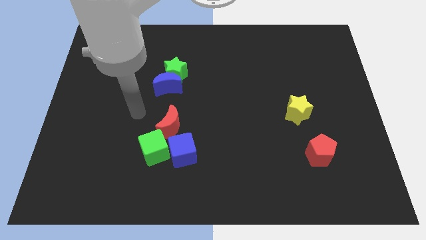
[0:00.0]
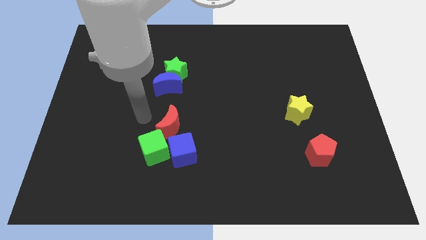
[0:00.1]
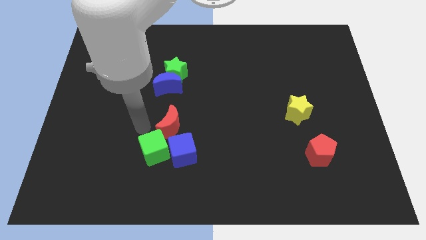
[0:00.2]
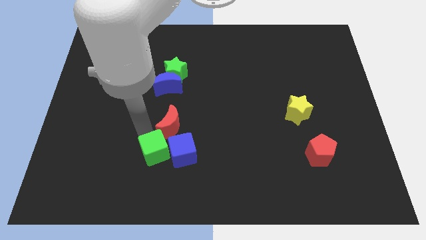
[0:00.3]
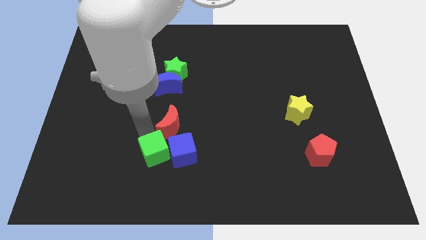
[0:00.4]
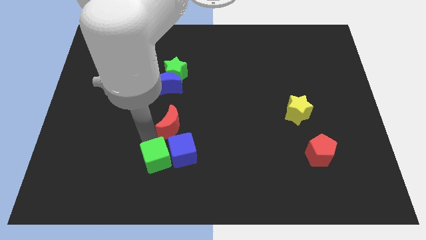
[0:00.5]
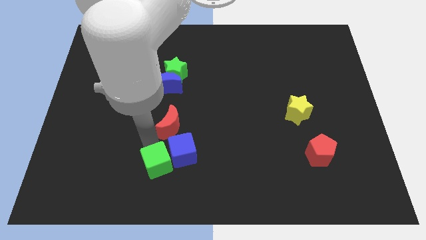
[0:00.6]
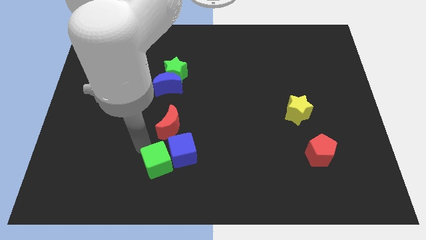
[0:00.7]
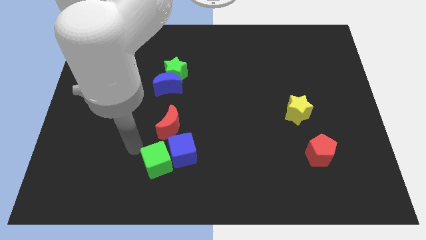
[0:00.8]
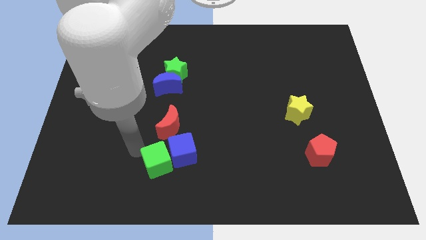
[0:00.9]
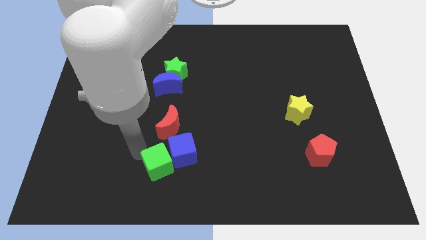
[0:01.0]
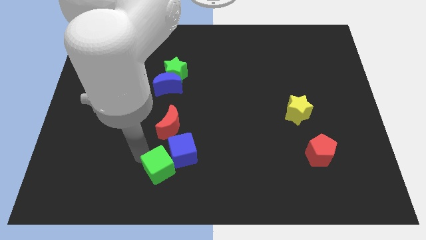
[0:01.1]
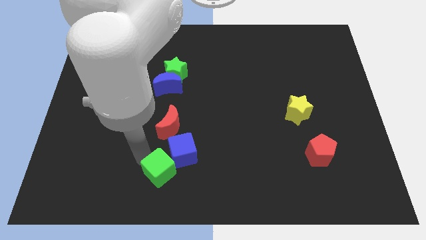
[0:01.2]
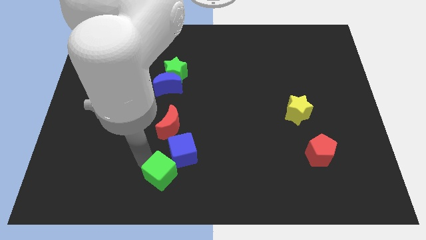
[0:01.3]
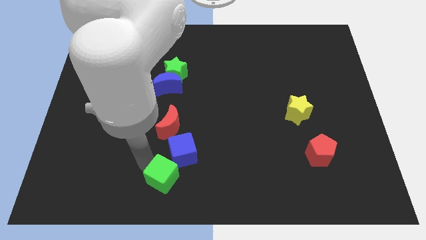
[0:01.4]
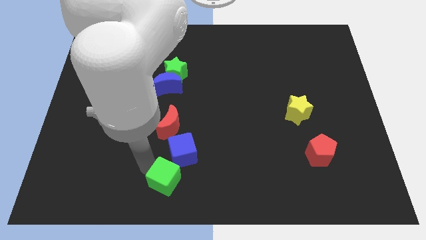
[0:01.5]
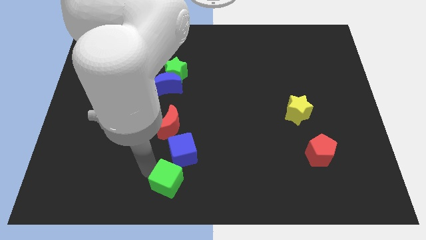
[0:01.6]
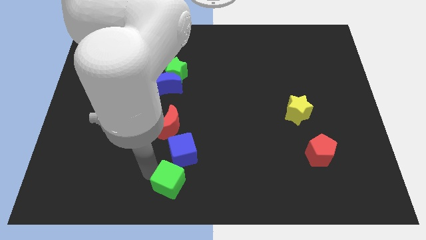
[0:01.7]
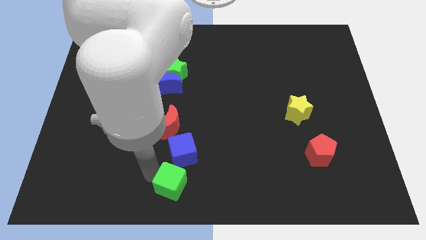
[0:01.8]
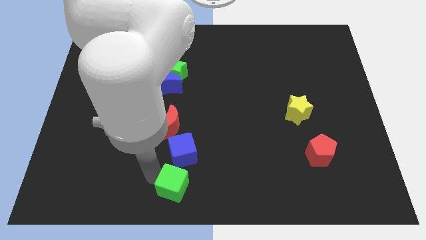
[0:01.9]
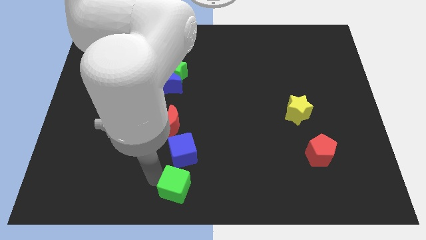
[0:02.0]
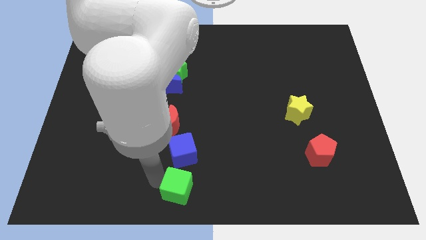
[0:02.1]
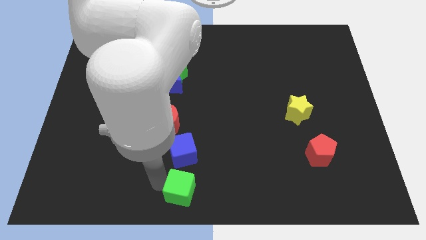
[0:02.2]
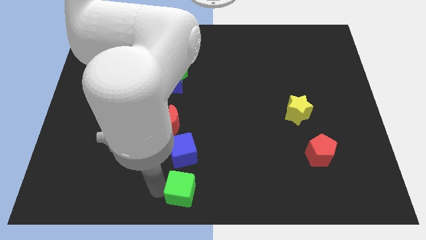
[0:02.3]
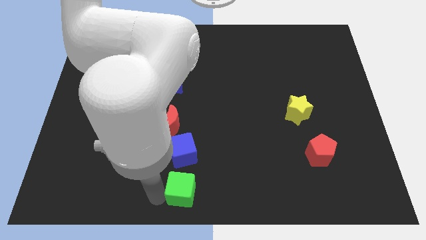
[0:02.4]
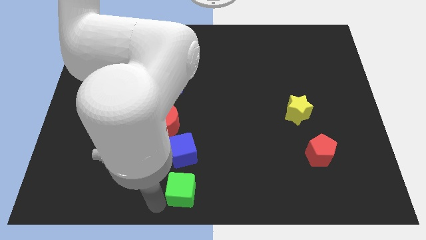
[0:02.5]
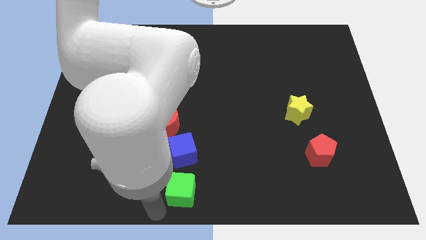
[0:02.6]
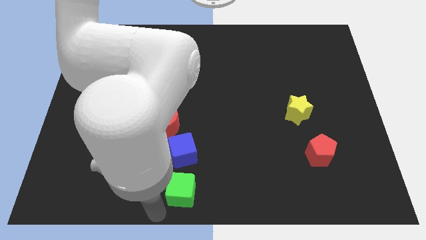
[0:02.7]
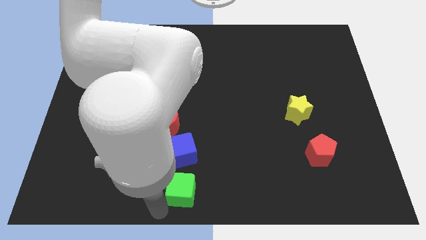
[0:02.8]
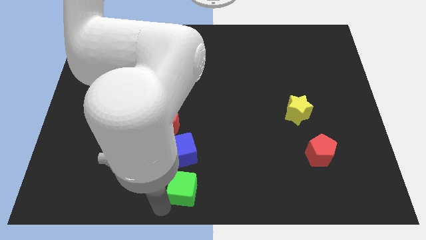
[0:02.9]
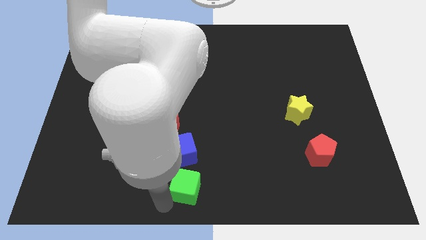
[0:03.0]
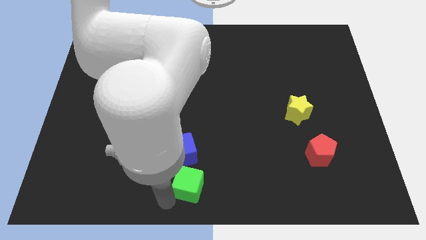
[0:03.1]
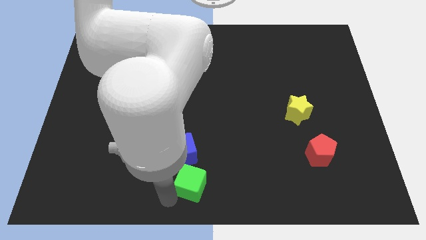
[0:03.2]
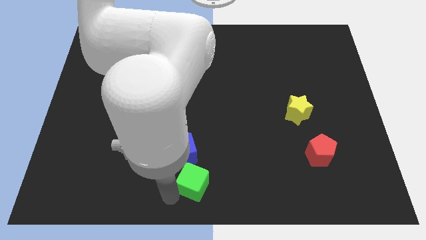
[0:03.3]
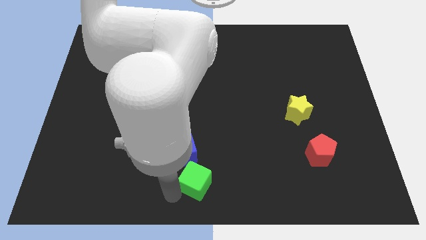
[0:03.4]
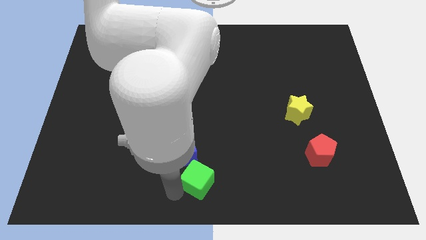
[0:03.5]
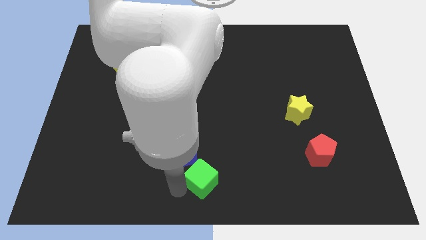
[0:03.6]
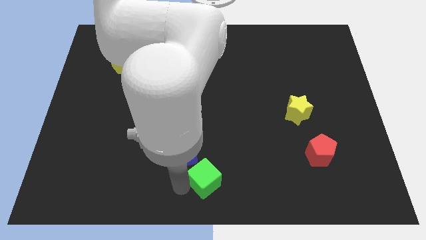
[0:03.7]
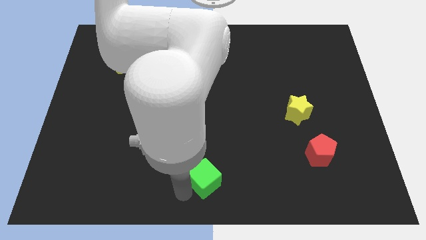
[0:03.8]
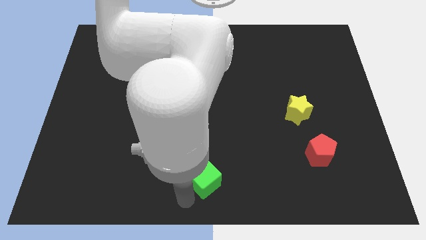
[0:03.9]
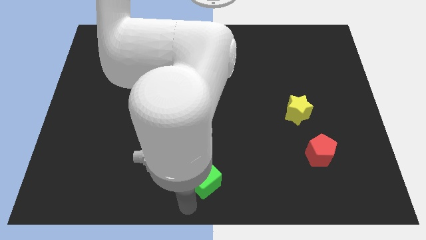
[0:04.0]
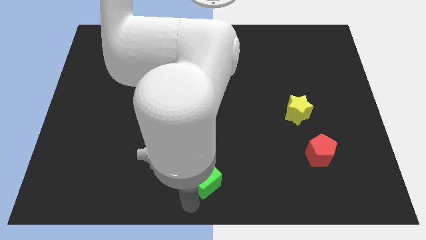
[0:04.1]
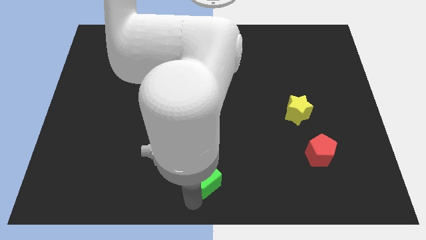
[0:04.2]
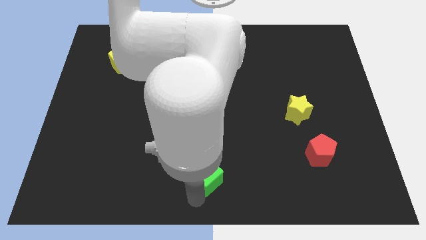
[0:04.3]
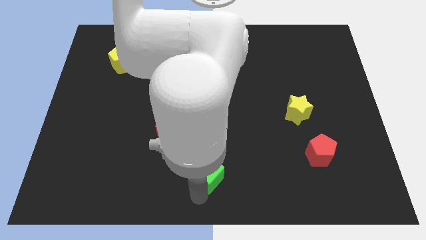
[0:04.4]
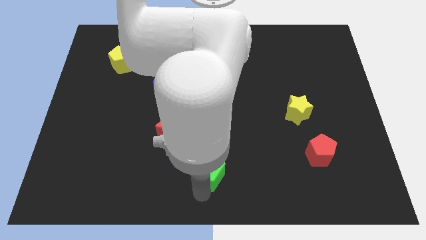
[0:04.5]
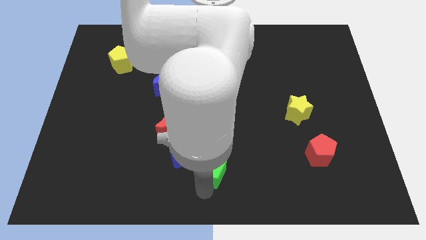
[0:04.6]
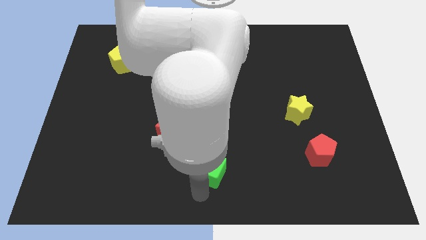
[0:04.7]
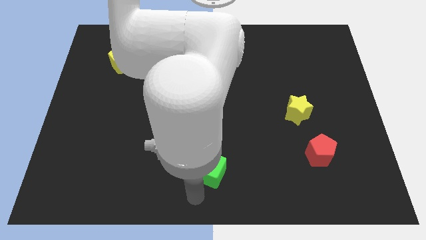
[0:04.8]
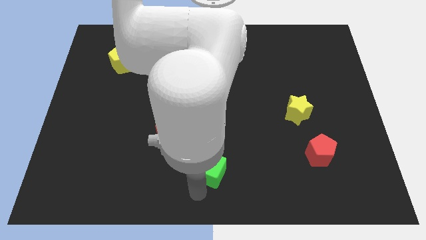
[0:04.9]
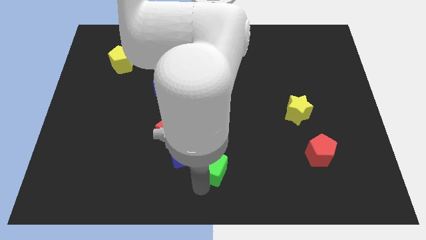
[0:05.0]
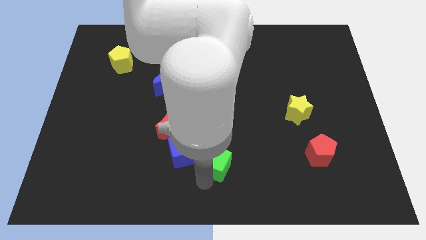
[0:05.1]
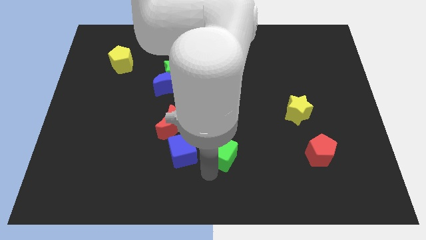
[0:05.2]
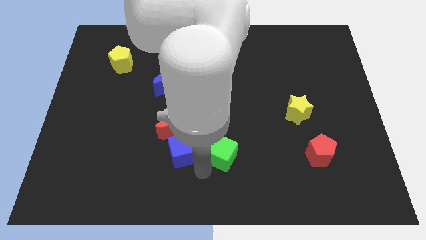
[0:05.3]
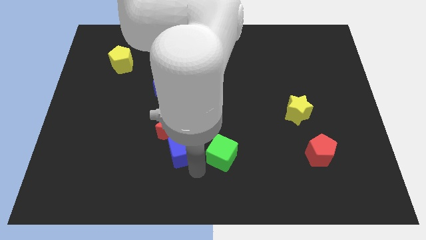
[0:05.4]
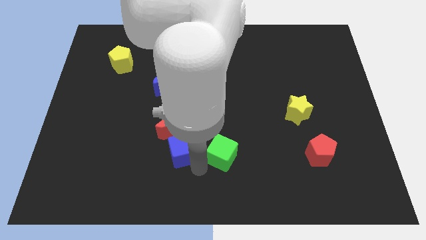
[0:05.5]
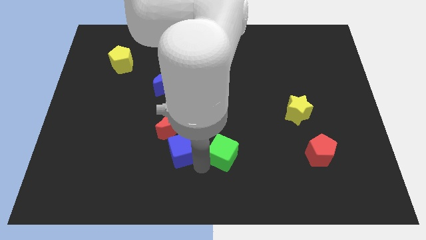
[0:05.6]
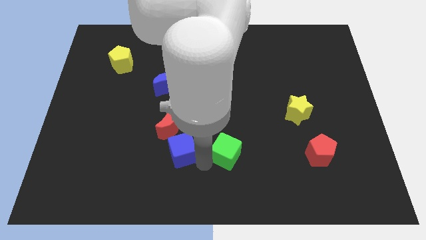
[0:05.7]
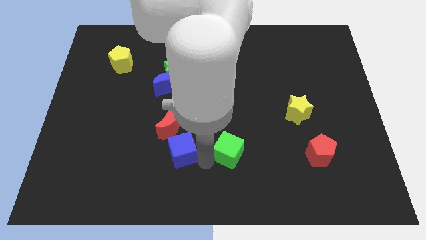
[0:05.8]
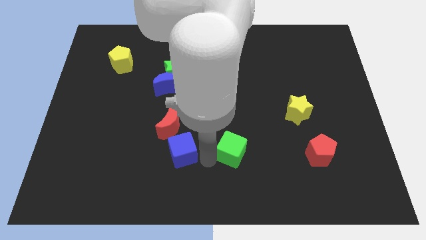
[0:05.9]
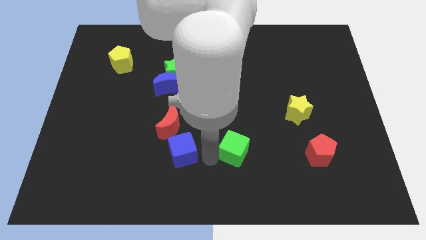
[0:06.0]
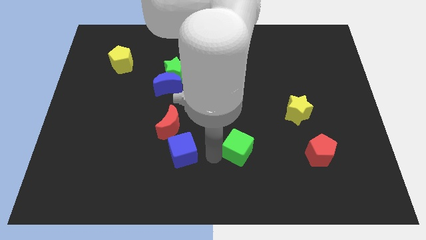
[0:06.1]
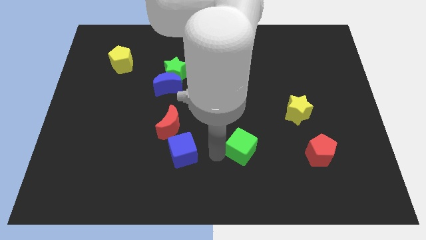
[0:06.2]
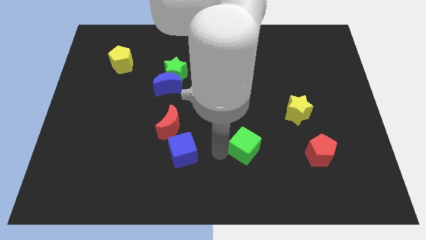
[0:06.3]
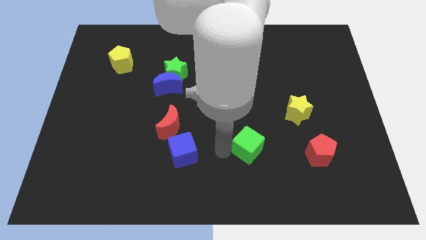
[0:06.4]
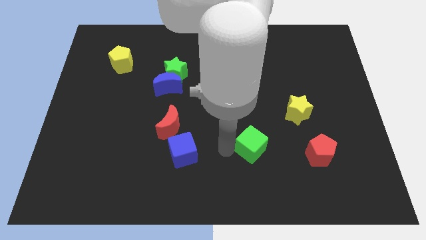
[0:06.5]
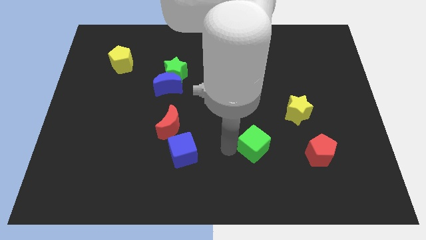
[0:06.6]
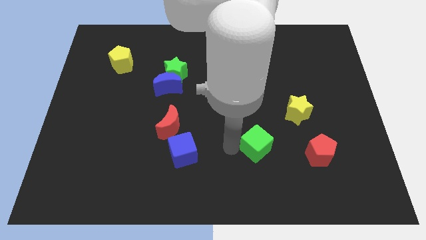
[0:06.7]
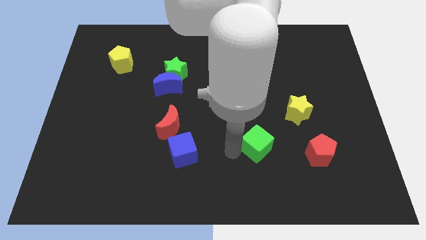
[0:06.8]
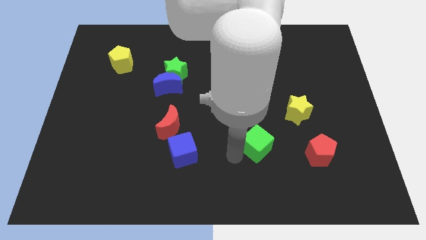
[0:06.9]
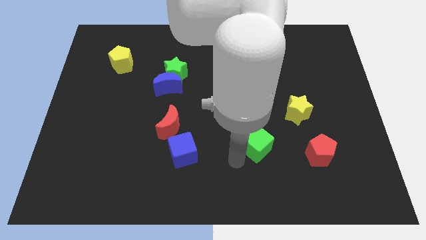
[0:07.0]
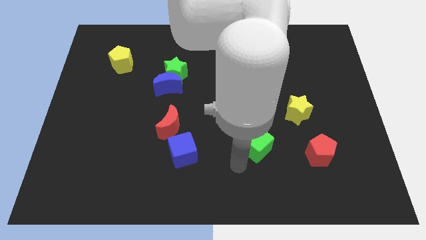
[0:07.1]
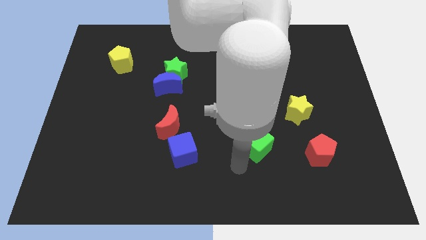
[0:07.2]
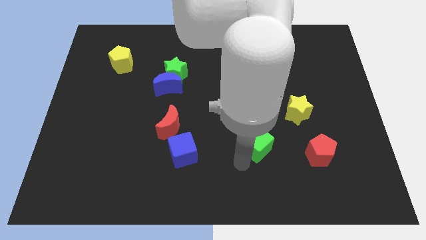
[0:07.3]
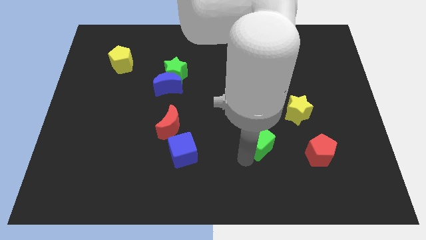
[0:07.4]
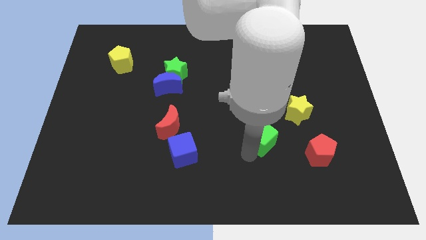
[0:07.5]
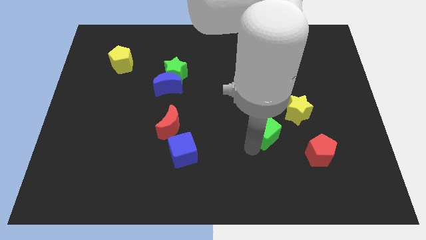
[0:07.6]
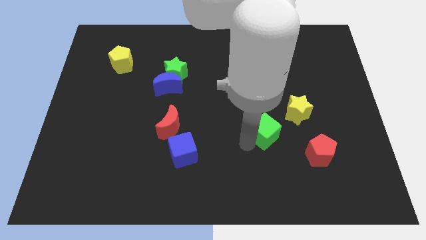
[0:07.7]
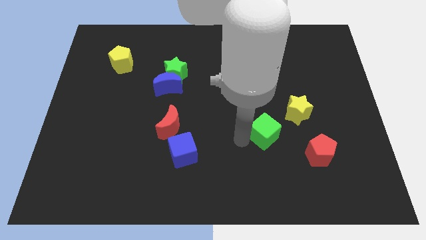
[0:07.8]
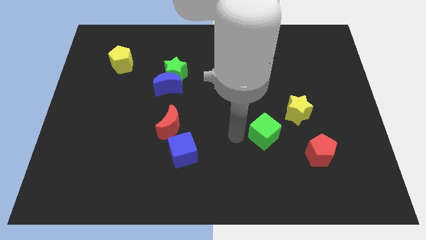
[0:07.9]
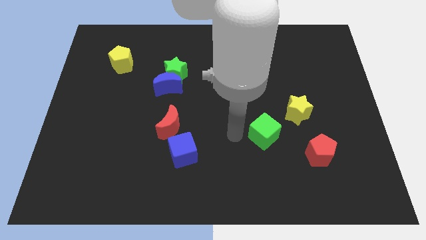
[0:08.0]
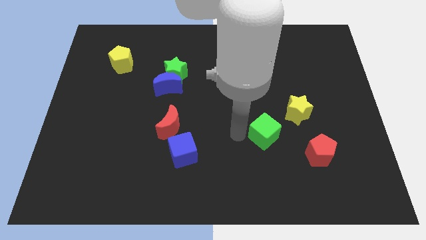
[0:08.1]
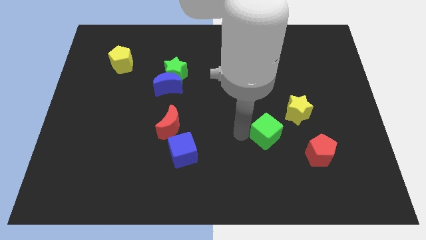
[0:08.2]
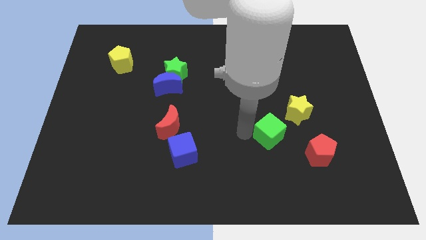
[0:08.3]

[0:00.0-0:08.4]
put the green cube diagonally up and to the left of the red pentagon
